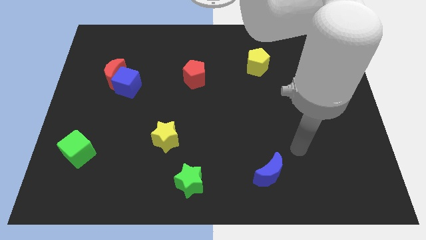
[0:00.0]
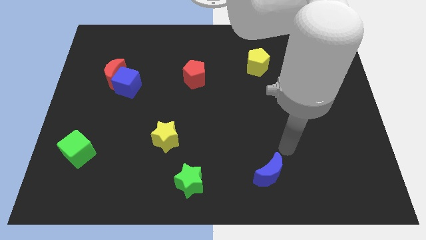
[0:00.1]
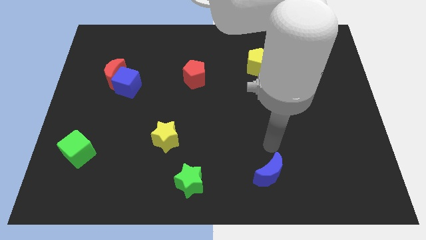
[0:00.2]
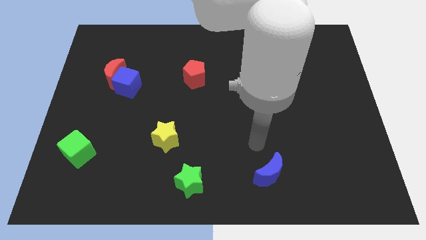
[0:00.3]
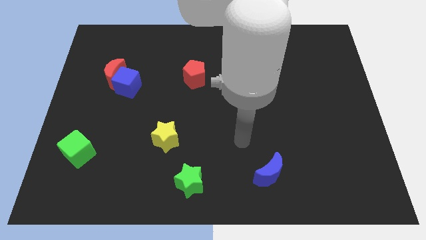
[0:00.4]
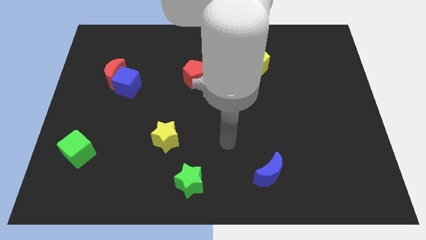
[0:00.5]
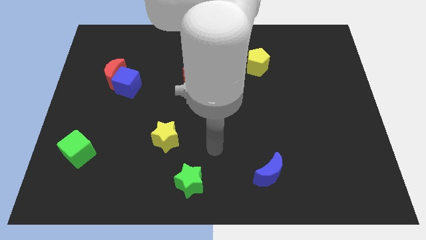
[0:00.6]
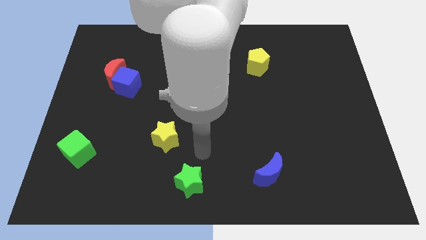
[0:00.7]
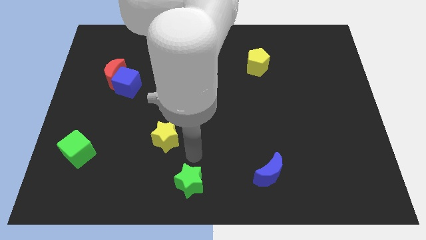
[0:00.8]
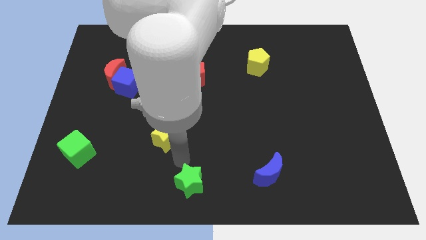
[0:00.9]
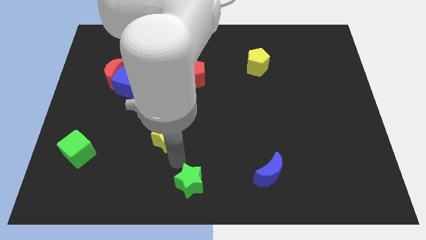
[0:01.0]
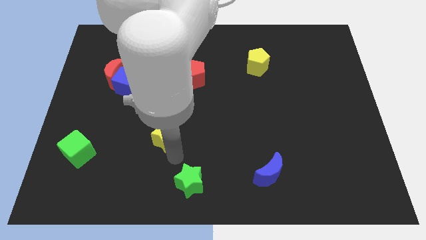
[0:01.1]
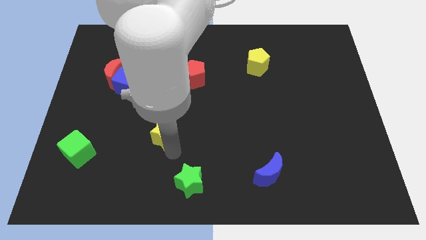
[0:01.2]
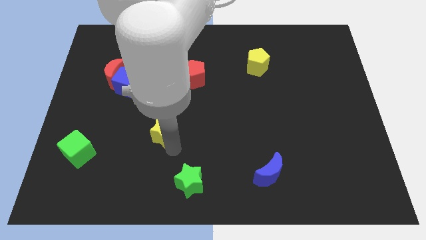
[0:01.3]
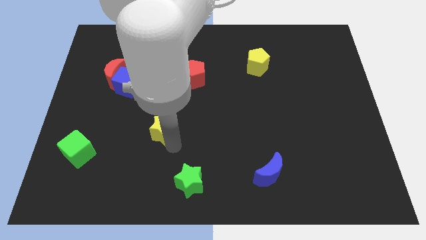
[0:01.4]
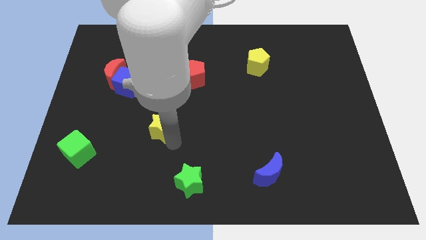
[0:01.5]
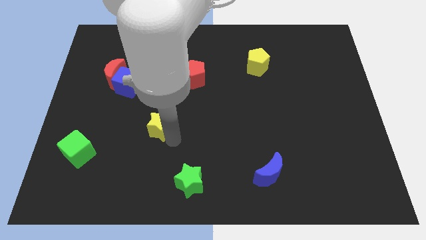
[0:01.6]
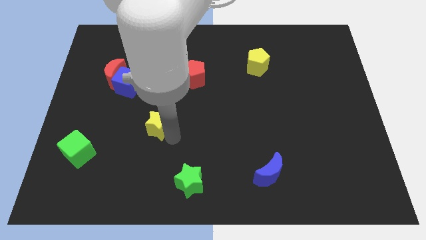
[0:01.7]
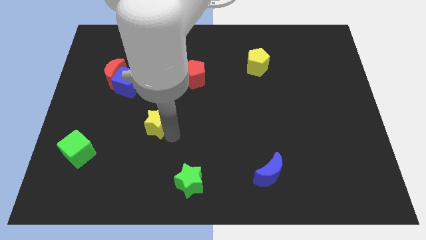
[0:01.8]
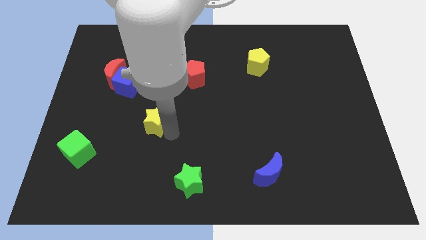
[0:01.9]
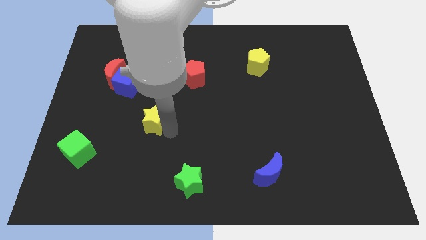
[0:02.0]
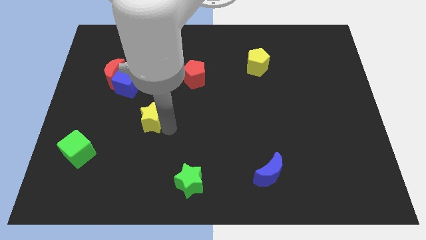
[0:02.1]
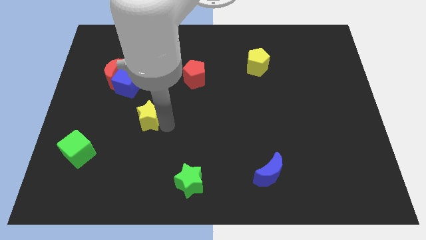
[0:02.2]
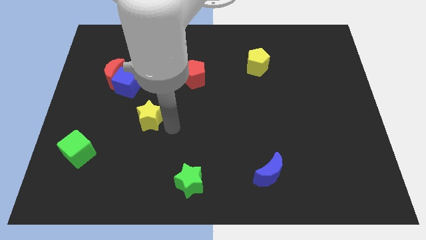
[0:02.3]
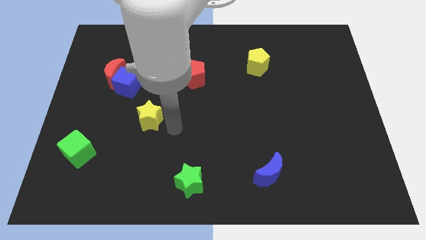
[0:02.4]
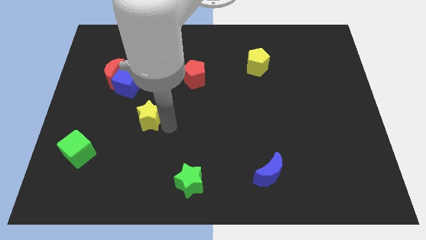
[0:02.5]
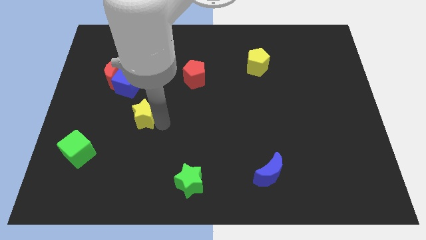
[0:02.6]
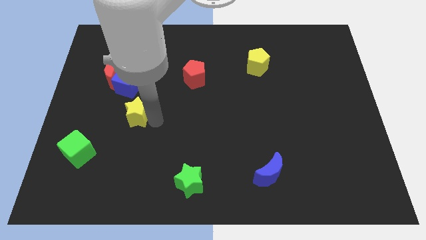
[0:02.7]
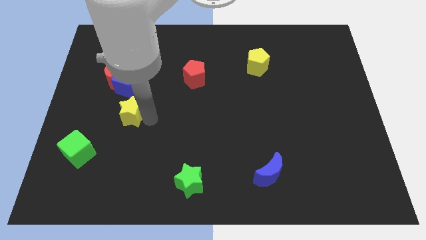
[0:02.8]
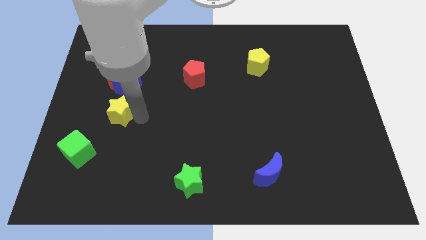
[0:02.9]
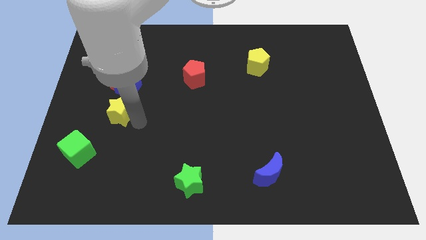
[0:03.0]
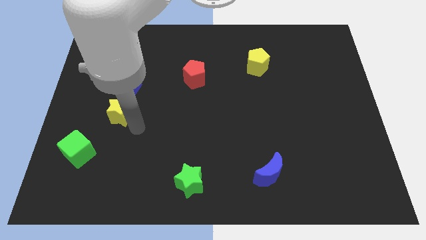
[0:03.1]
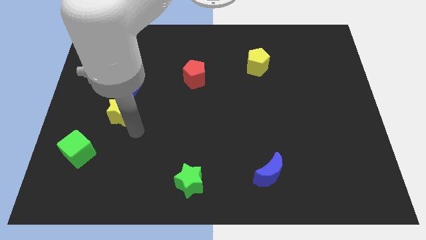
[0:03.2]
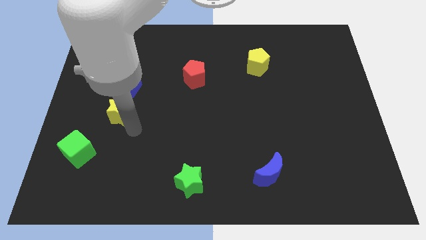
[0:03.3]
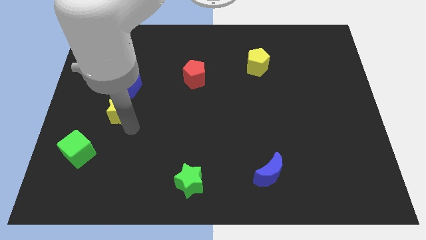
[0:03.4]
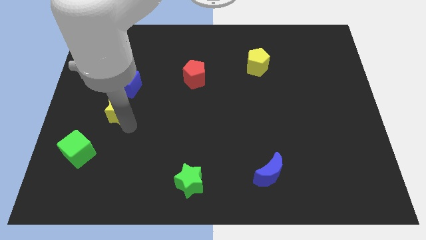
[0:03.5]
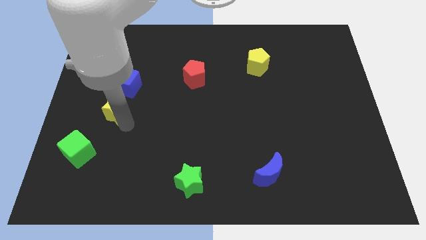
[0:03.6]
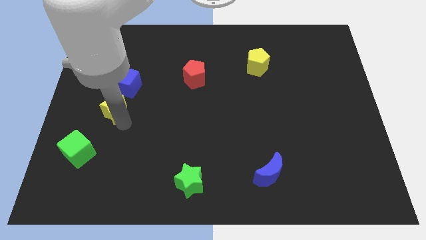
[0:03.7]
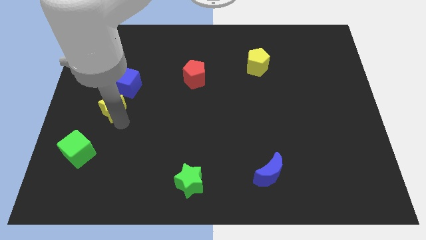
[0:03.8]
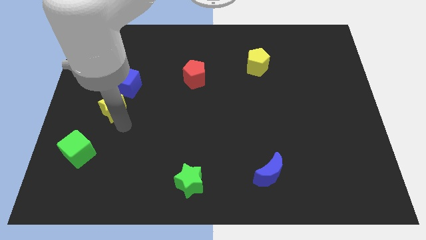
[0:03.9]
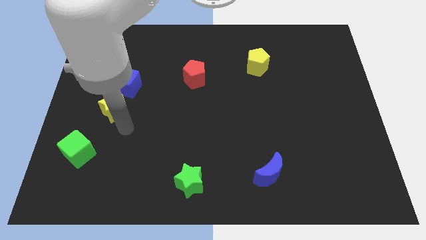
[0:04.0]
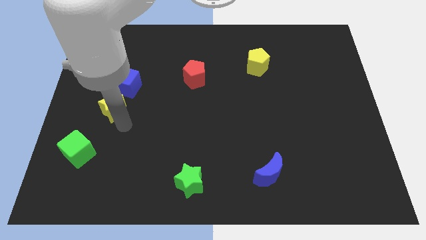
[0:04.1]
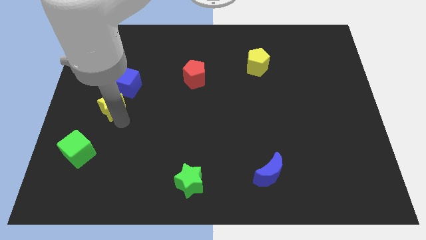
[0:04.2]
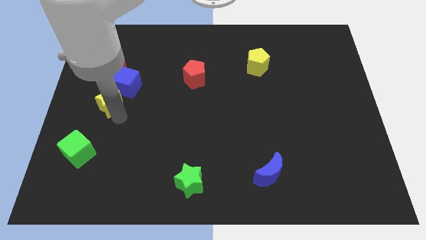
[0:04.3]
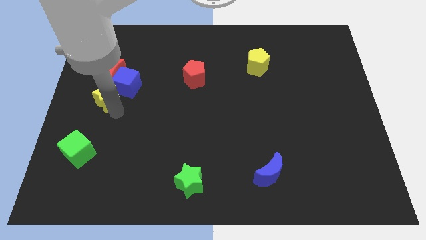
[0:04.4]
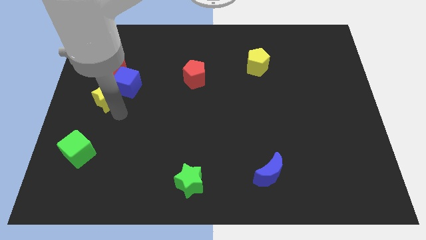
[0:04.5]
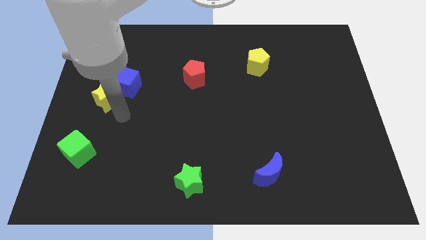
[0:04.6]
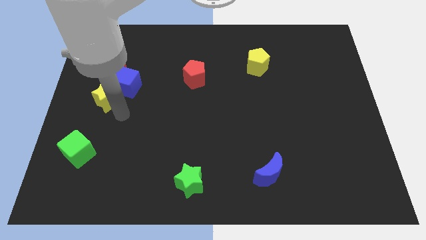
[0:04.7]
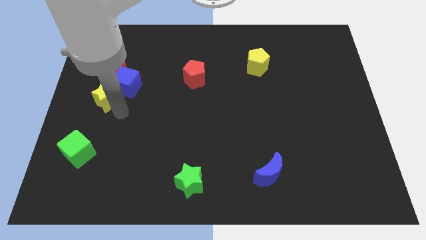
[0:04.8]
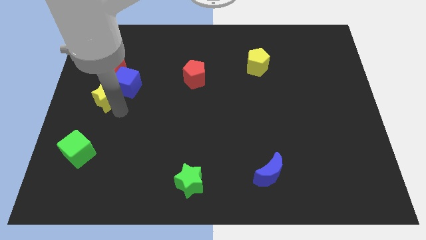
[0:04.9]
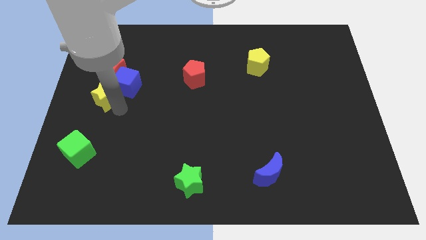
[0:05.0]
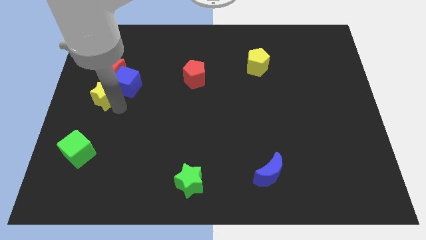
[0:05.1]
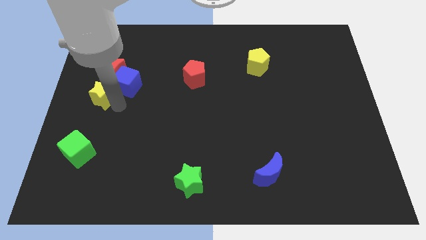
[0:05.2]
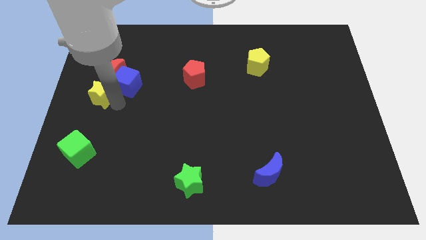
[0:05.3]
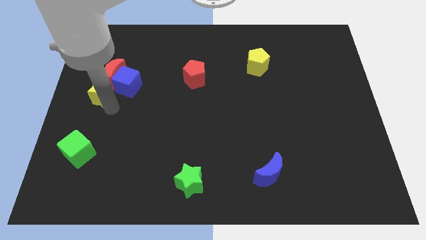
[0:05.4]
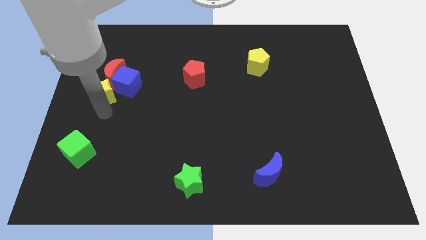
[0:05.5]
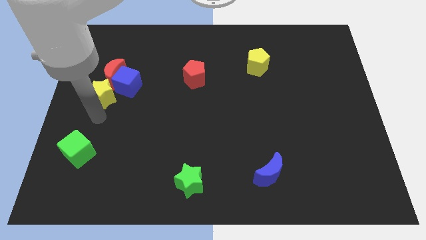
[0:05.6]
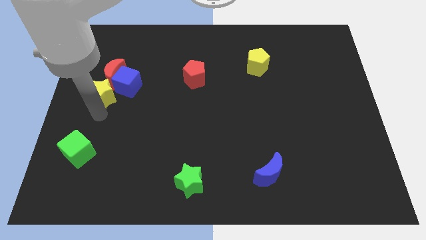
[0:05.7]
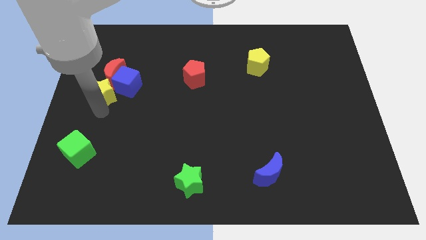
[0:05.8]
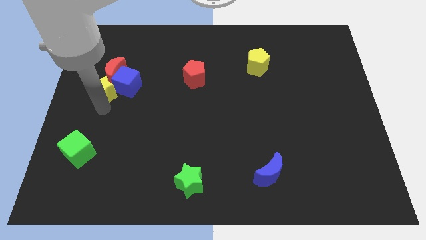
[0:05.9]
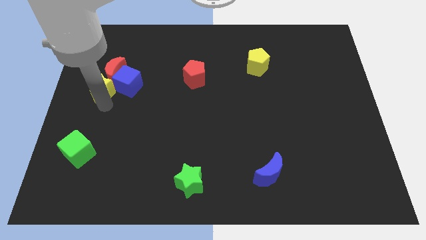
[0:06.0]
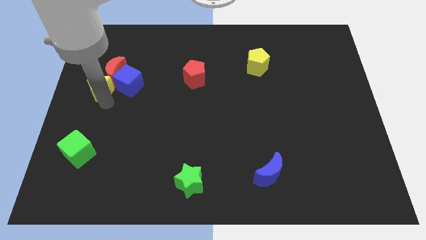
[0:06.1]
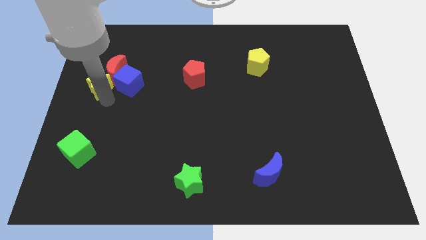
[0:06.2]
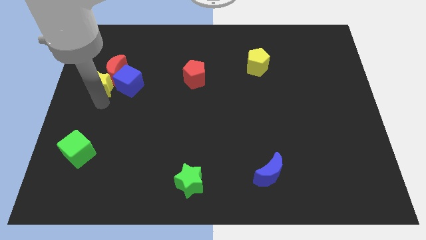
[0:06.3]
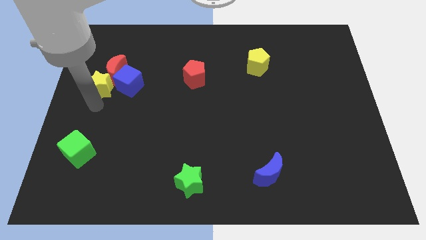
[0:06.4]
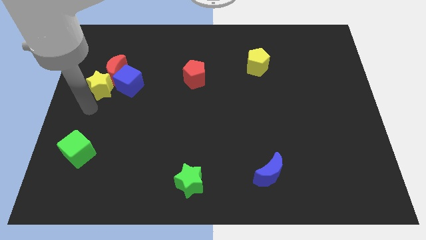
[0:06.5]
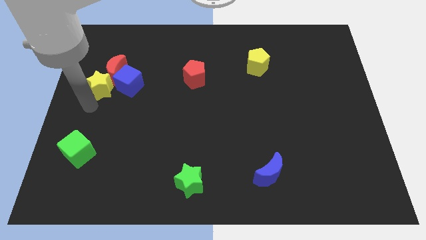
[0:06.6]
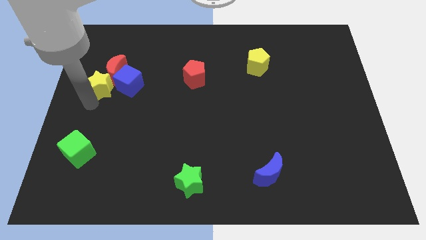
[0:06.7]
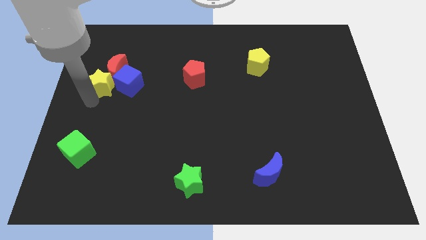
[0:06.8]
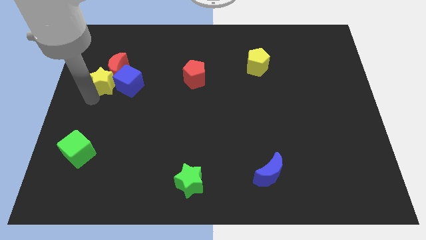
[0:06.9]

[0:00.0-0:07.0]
push the yellow star to the top left of the blue cube

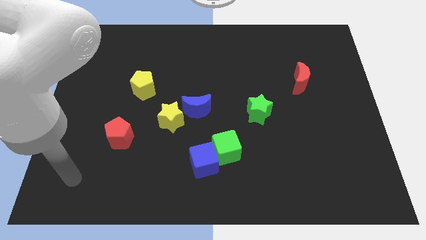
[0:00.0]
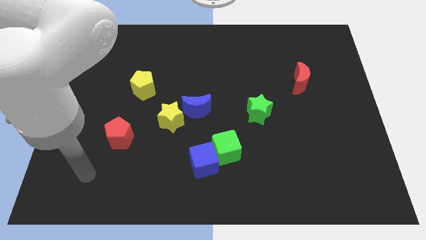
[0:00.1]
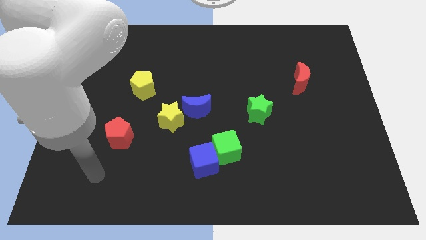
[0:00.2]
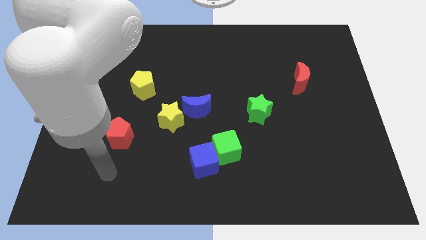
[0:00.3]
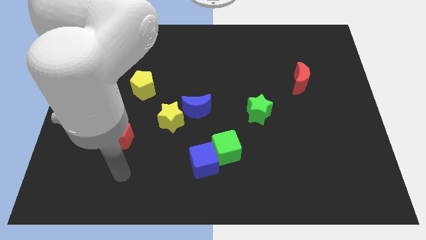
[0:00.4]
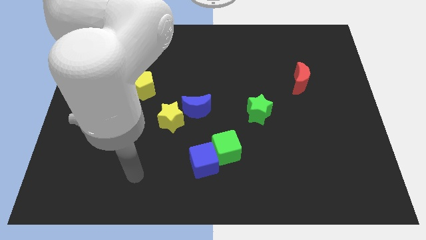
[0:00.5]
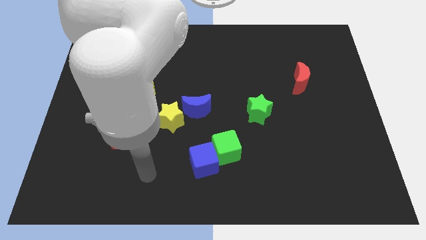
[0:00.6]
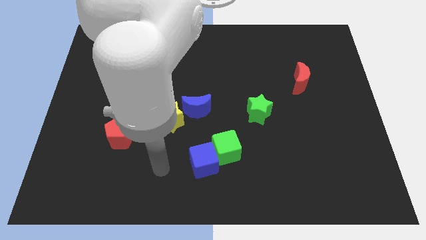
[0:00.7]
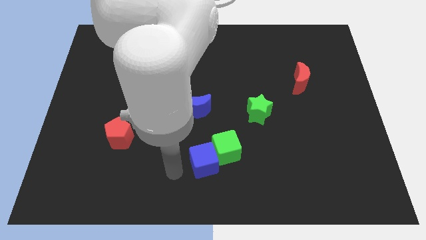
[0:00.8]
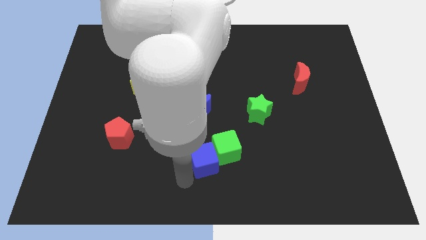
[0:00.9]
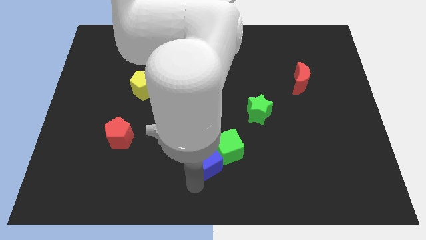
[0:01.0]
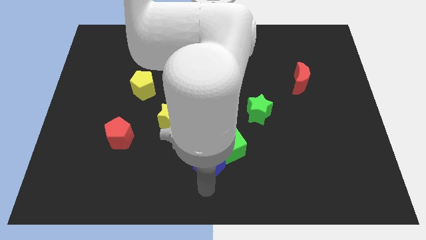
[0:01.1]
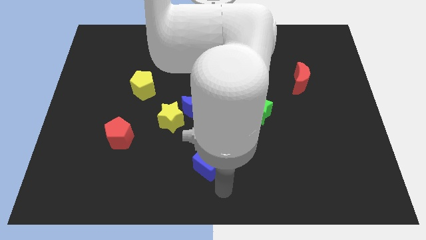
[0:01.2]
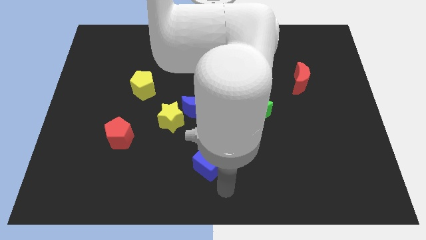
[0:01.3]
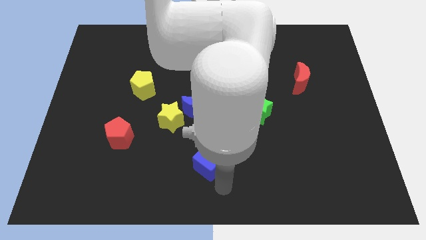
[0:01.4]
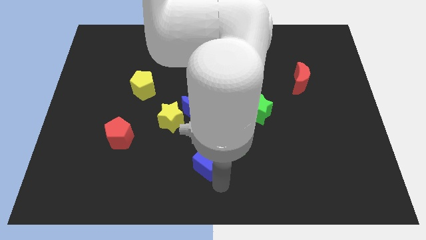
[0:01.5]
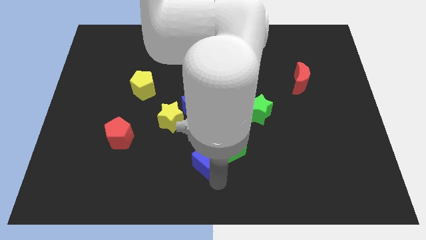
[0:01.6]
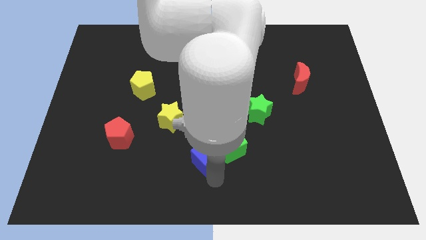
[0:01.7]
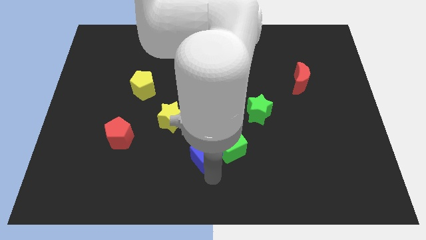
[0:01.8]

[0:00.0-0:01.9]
put the blue cube to the bottom right of the yellow star
